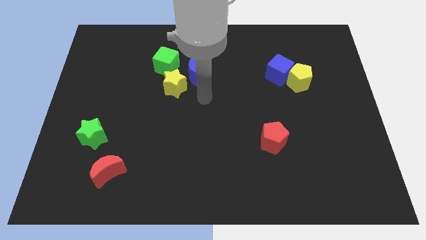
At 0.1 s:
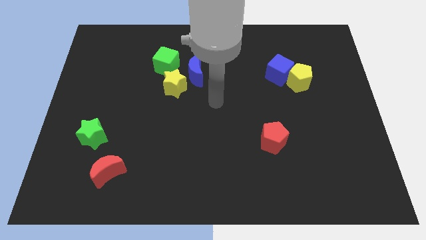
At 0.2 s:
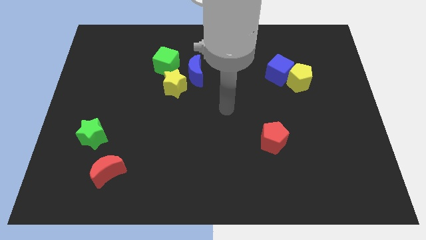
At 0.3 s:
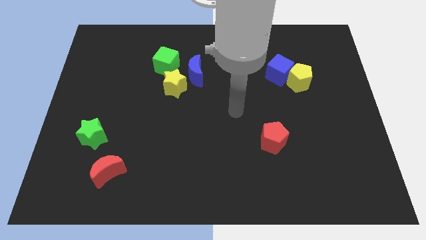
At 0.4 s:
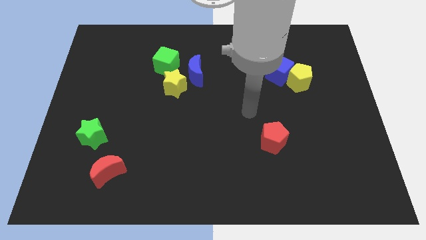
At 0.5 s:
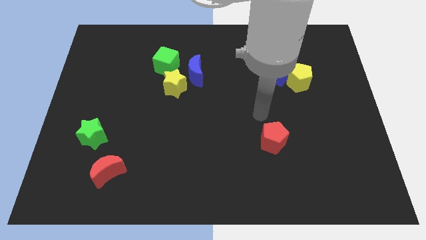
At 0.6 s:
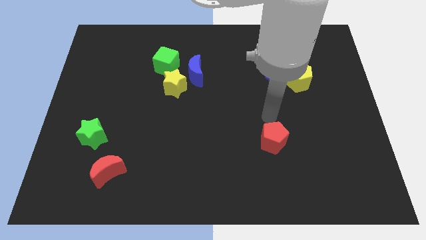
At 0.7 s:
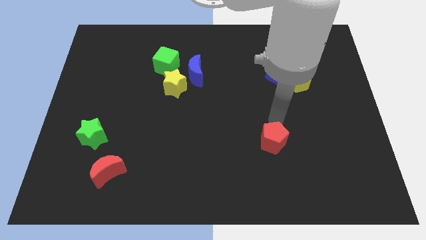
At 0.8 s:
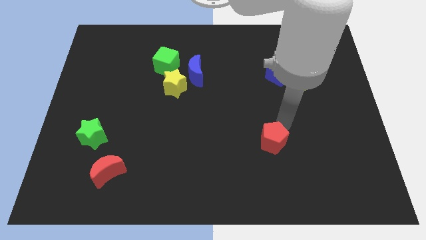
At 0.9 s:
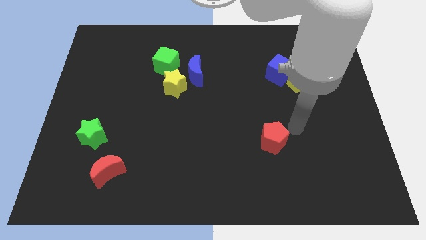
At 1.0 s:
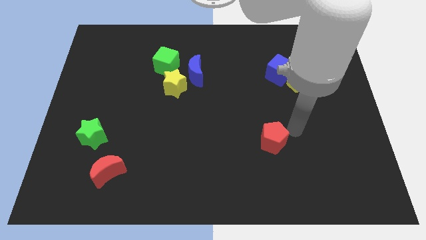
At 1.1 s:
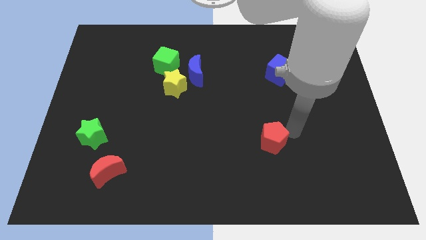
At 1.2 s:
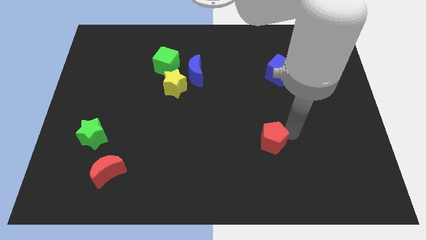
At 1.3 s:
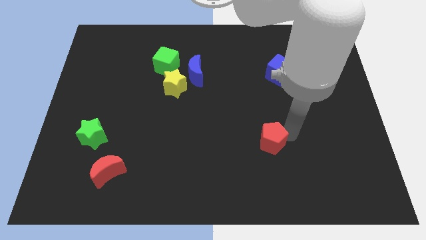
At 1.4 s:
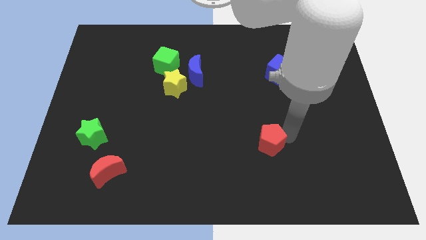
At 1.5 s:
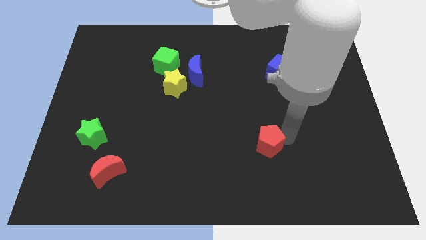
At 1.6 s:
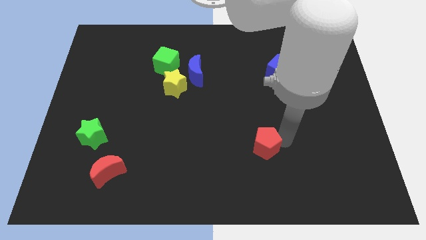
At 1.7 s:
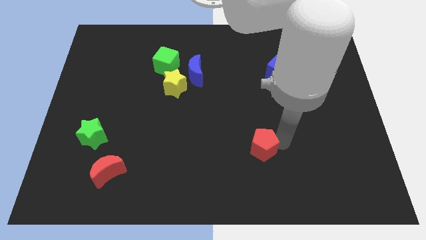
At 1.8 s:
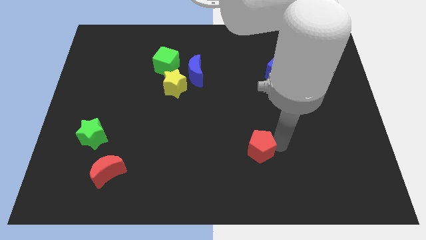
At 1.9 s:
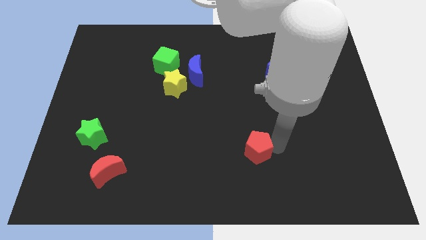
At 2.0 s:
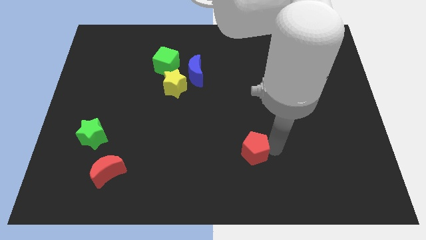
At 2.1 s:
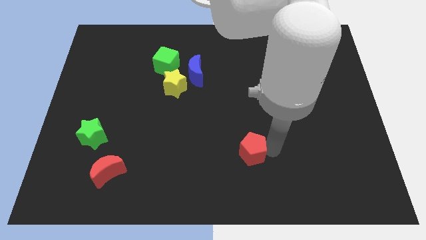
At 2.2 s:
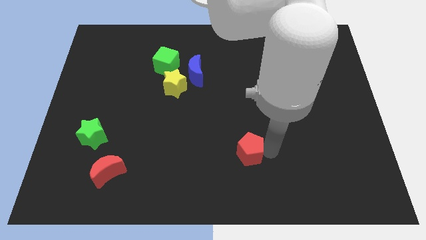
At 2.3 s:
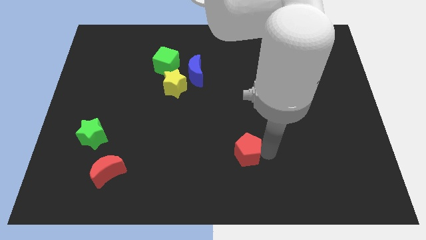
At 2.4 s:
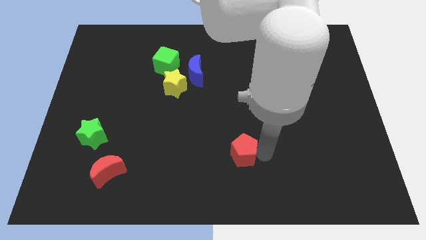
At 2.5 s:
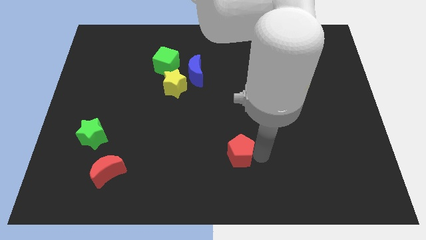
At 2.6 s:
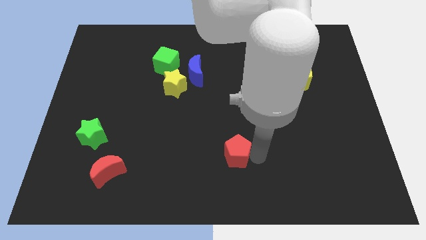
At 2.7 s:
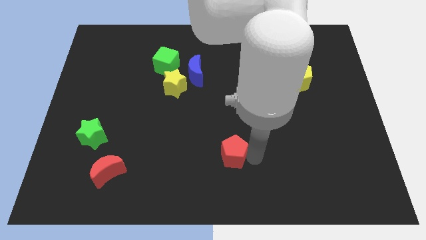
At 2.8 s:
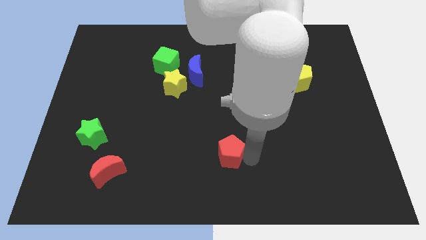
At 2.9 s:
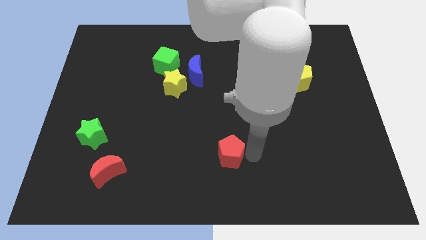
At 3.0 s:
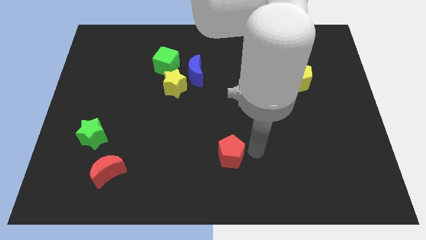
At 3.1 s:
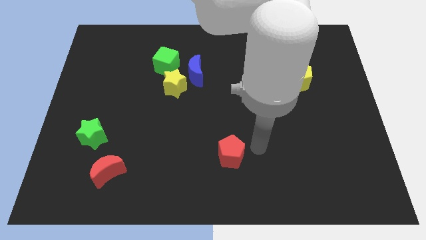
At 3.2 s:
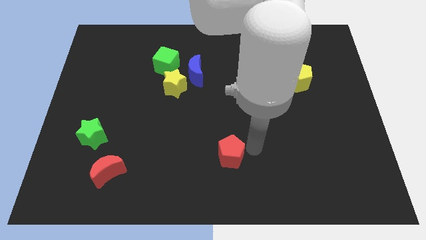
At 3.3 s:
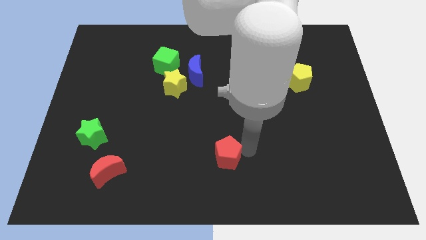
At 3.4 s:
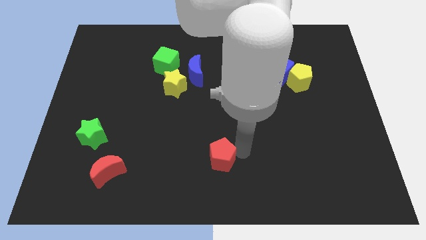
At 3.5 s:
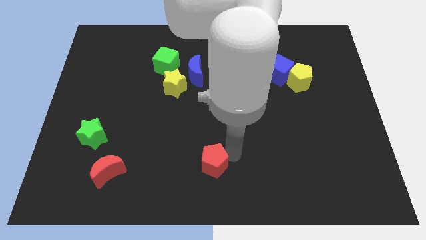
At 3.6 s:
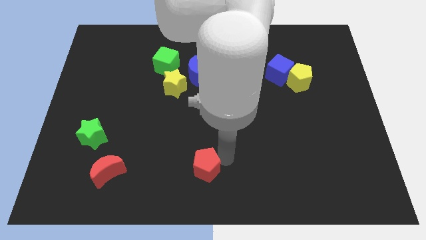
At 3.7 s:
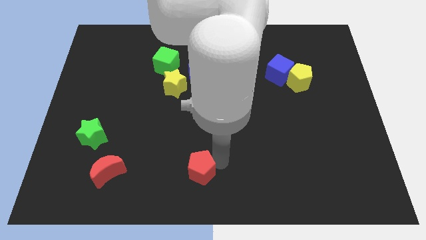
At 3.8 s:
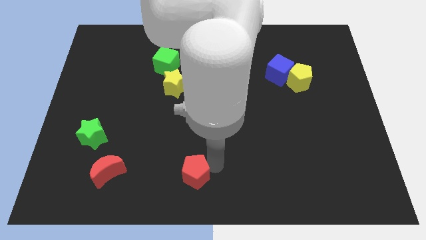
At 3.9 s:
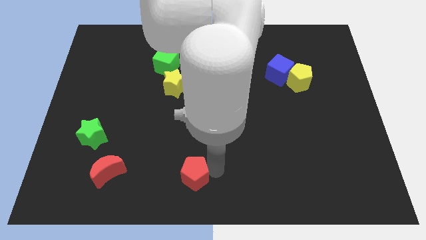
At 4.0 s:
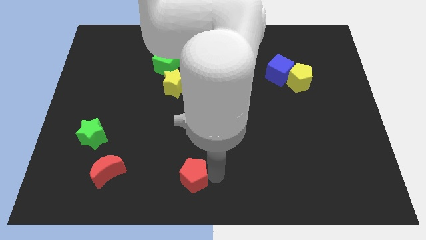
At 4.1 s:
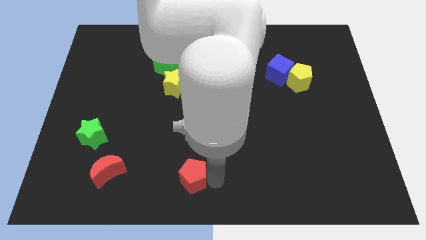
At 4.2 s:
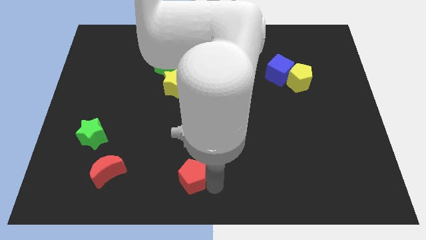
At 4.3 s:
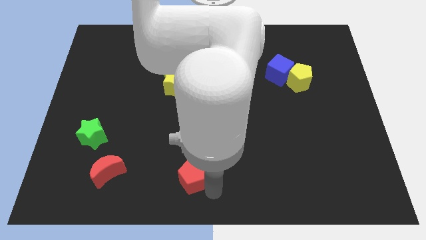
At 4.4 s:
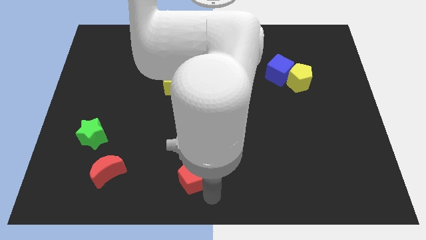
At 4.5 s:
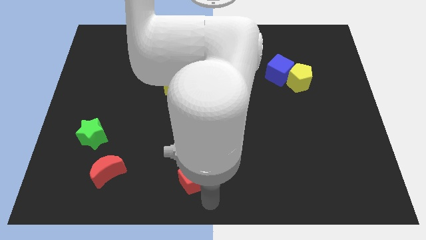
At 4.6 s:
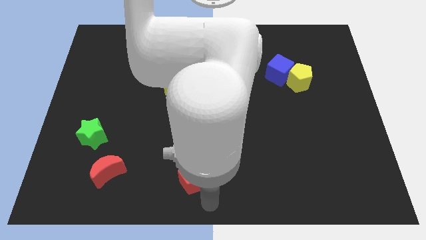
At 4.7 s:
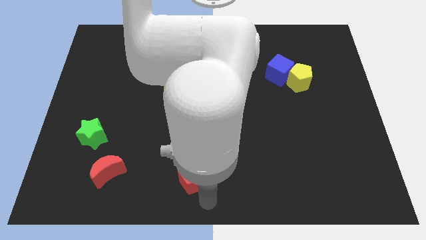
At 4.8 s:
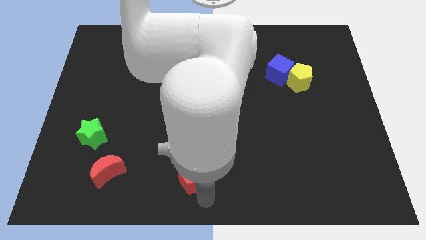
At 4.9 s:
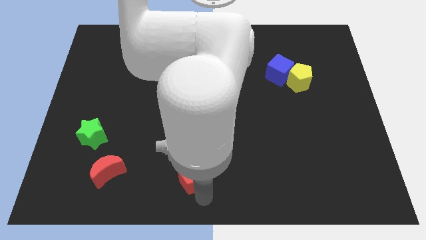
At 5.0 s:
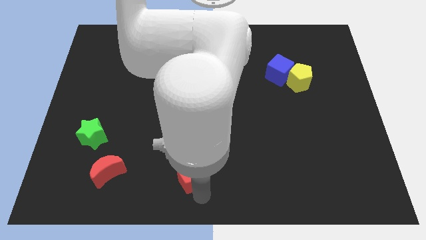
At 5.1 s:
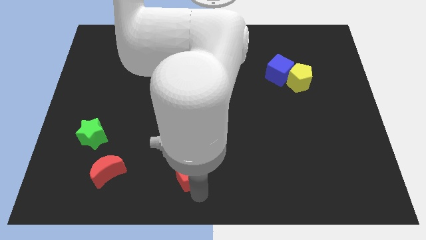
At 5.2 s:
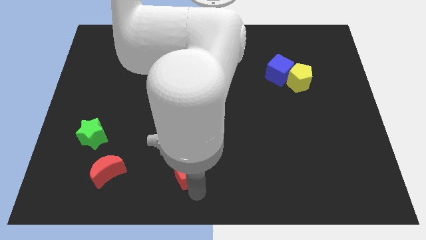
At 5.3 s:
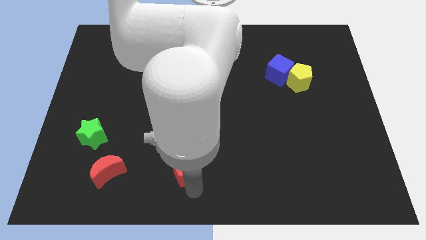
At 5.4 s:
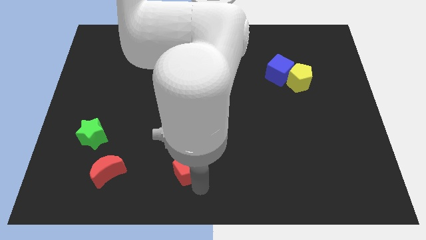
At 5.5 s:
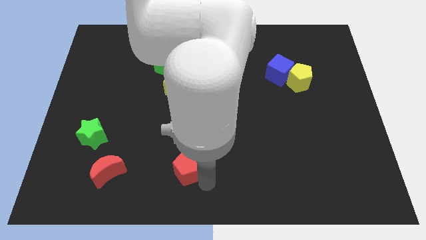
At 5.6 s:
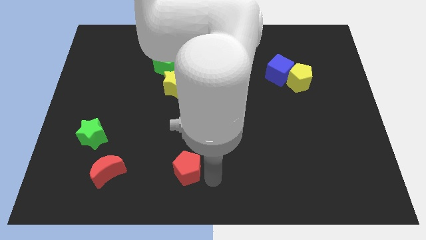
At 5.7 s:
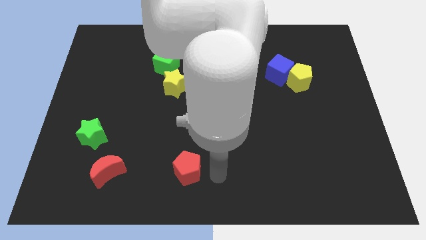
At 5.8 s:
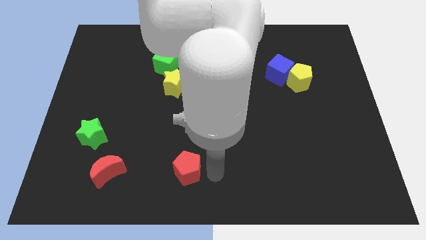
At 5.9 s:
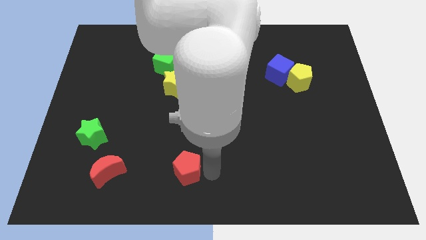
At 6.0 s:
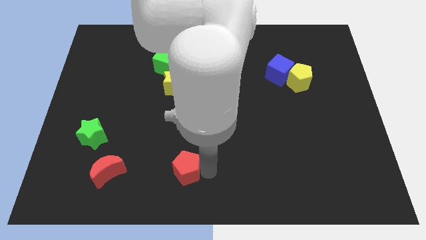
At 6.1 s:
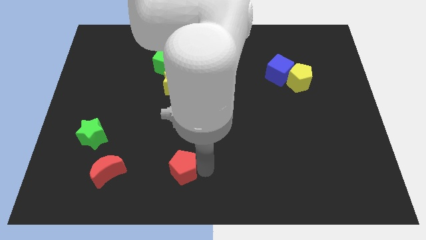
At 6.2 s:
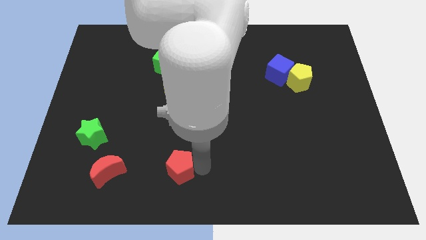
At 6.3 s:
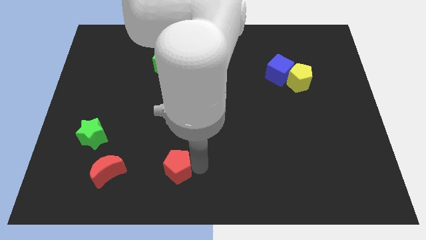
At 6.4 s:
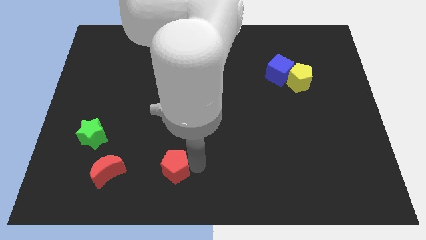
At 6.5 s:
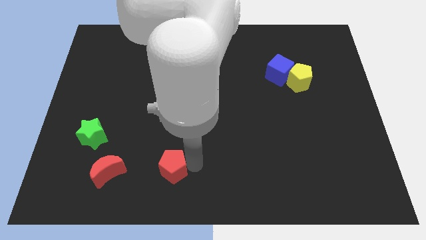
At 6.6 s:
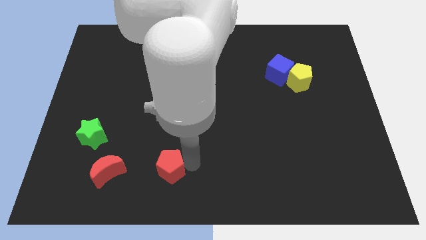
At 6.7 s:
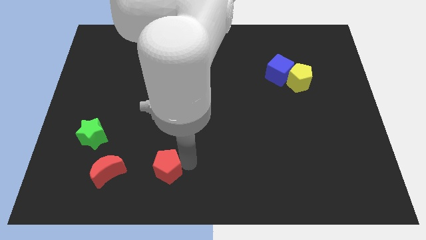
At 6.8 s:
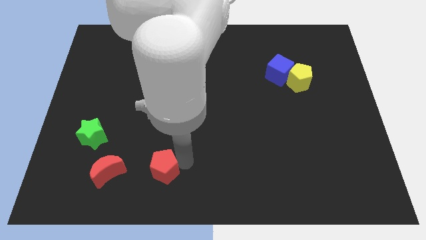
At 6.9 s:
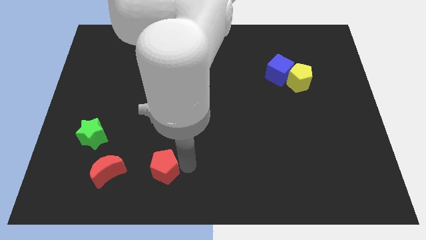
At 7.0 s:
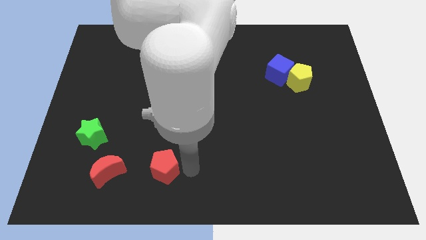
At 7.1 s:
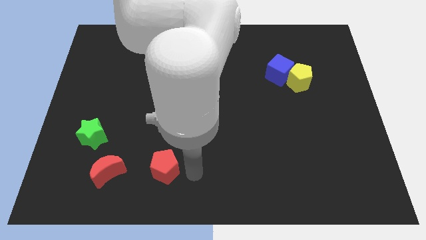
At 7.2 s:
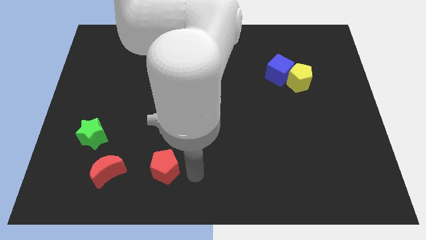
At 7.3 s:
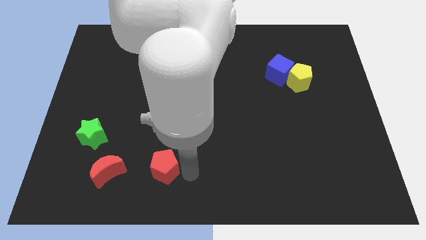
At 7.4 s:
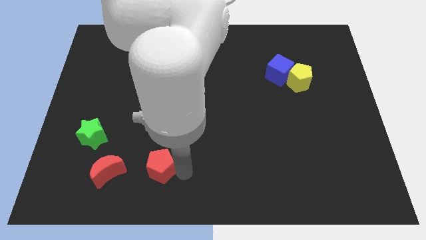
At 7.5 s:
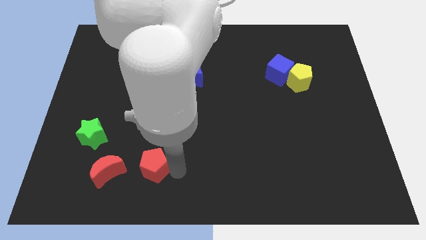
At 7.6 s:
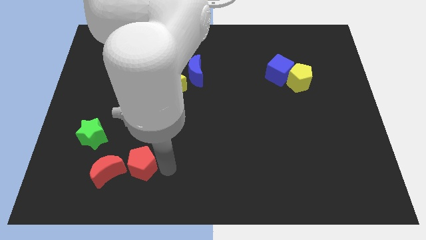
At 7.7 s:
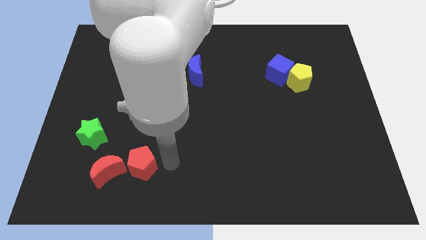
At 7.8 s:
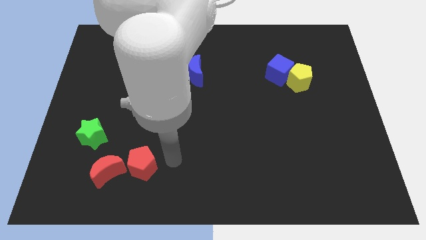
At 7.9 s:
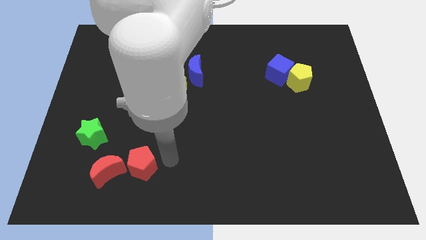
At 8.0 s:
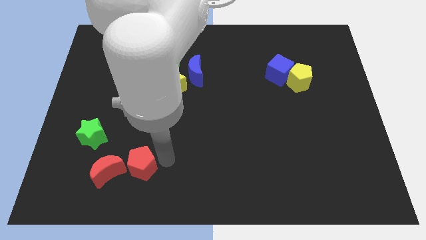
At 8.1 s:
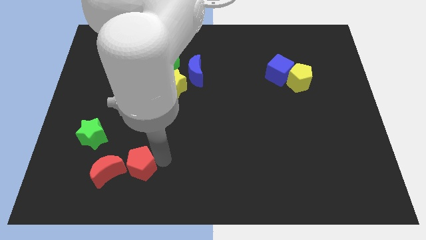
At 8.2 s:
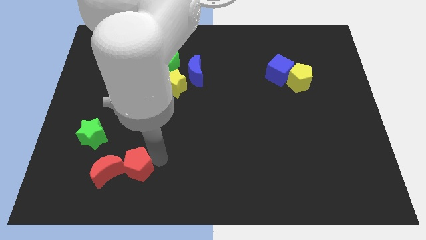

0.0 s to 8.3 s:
push the red pentagon next to the red moon
